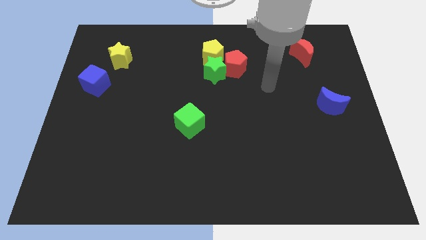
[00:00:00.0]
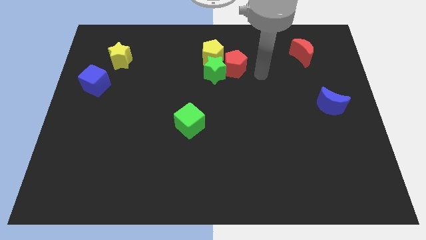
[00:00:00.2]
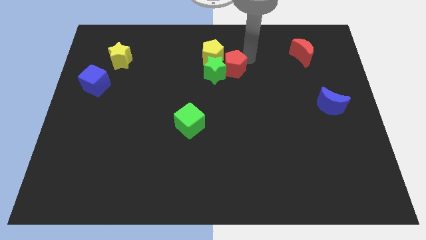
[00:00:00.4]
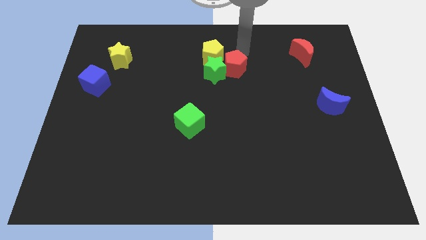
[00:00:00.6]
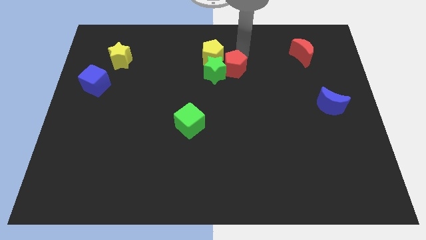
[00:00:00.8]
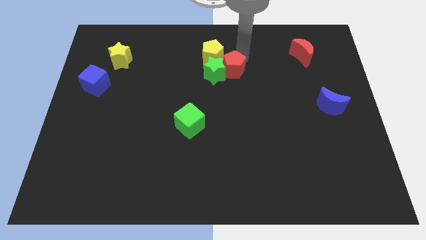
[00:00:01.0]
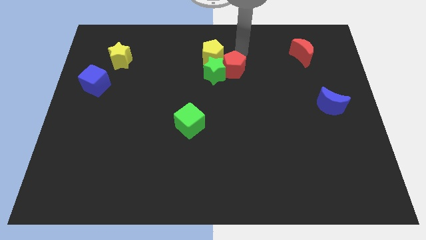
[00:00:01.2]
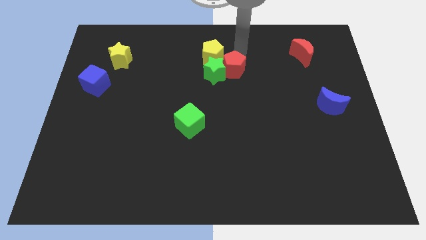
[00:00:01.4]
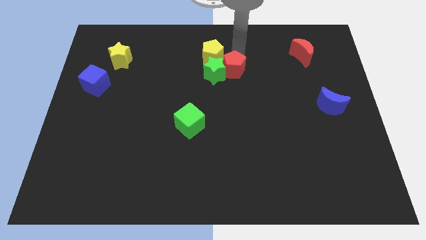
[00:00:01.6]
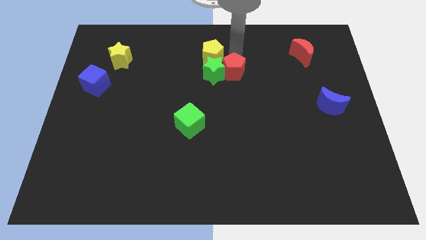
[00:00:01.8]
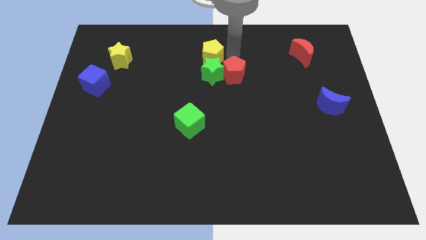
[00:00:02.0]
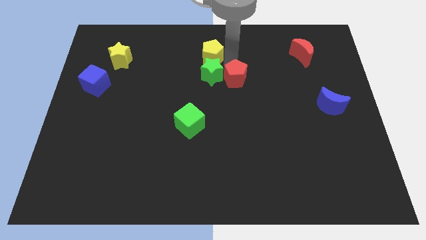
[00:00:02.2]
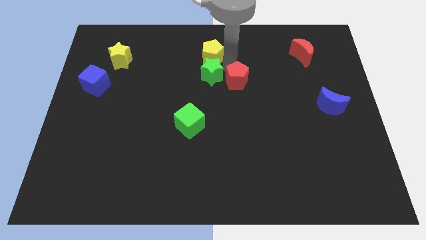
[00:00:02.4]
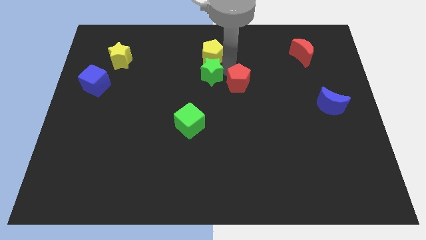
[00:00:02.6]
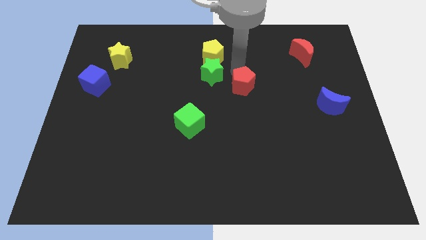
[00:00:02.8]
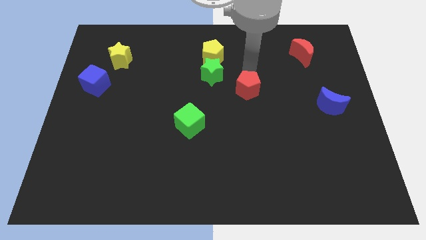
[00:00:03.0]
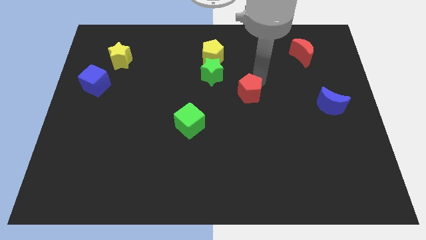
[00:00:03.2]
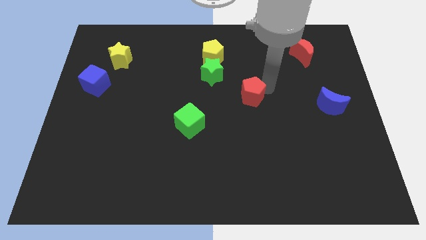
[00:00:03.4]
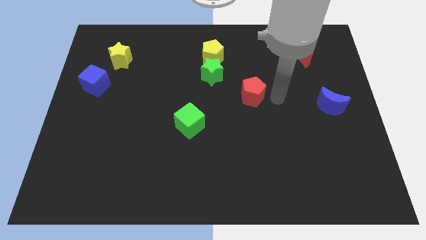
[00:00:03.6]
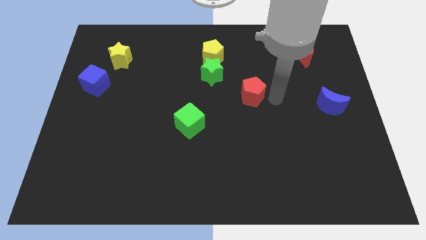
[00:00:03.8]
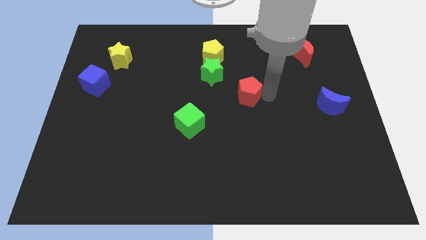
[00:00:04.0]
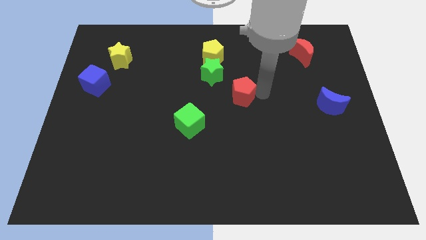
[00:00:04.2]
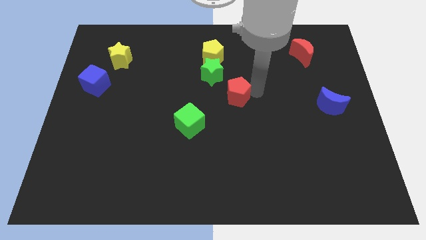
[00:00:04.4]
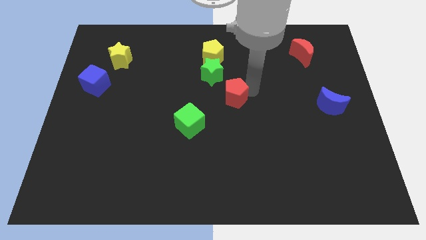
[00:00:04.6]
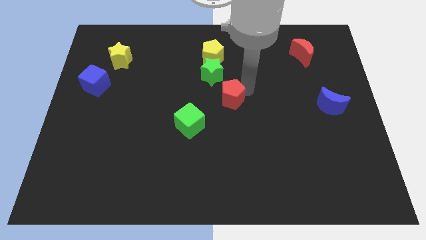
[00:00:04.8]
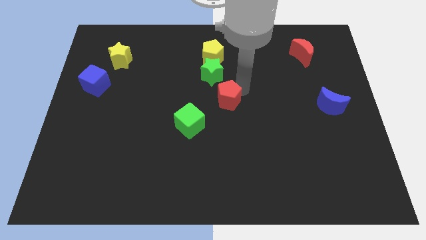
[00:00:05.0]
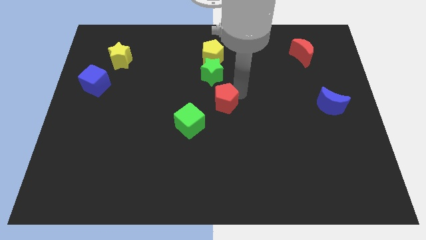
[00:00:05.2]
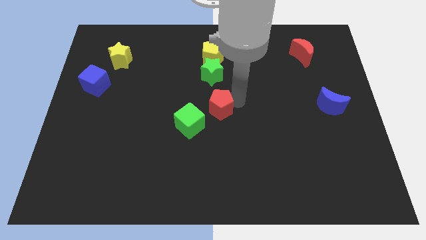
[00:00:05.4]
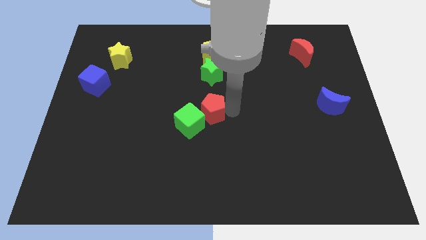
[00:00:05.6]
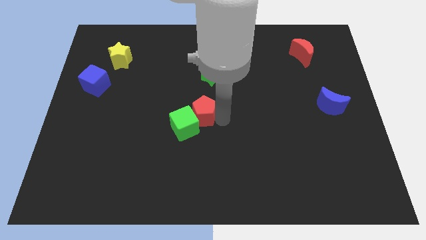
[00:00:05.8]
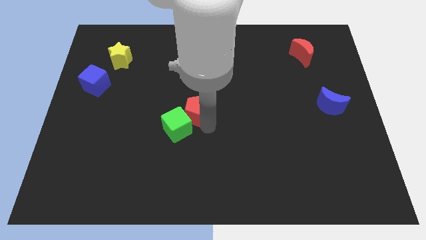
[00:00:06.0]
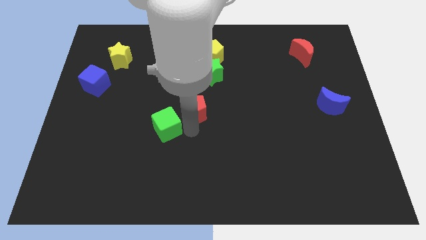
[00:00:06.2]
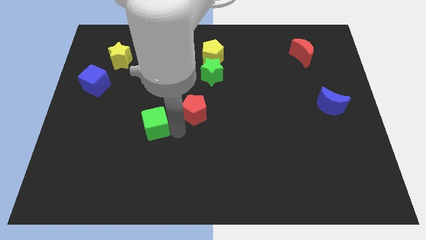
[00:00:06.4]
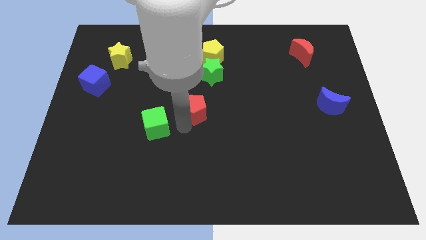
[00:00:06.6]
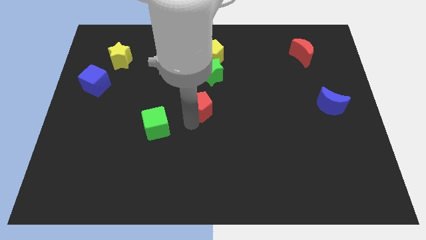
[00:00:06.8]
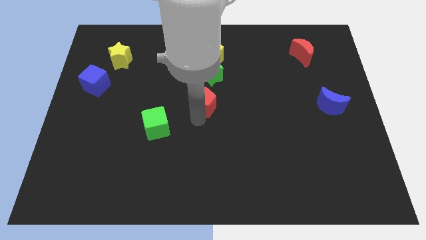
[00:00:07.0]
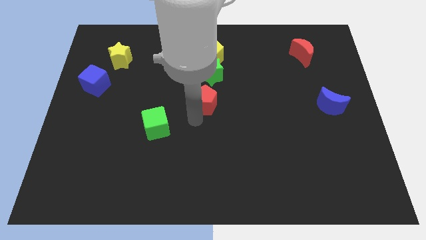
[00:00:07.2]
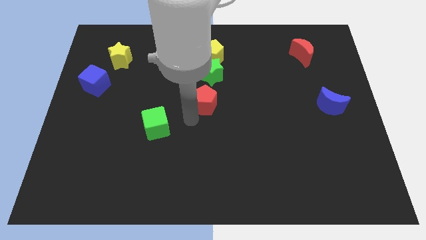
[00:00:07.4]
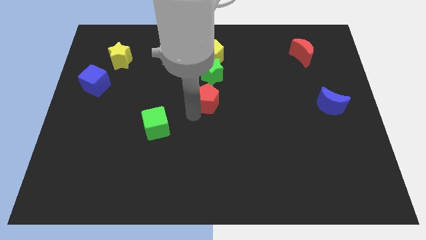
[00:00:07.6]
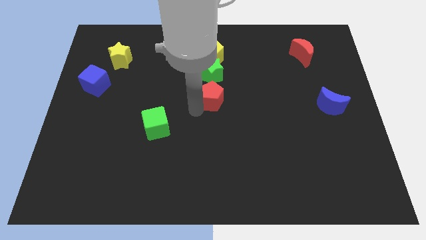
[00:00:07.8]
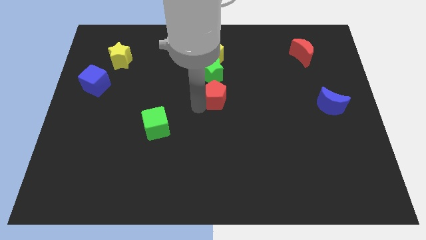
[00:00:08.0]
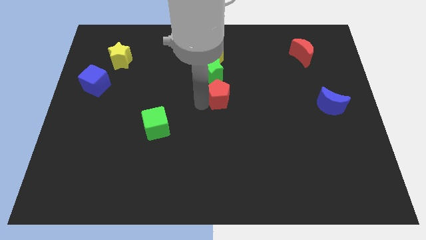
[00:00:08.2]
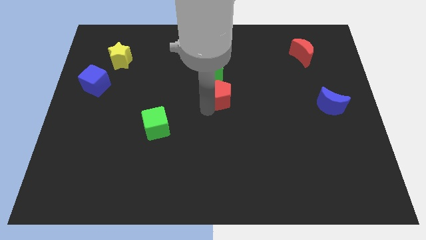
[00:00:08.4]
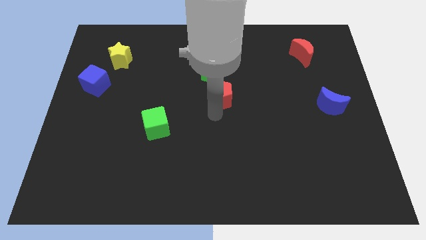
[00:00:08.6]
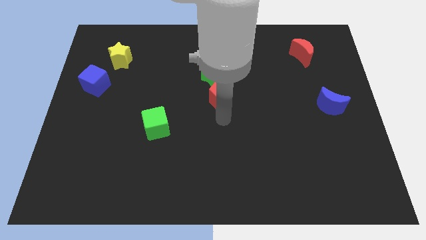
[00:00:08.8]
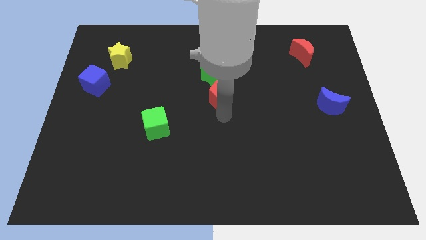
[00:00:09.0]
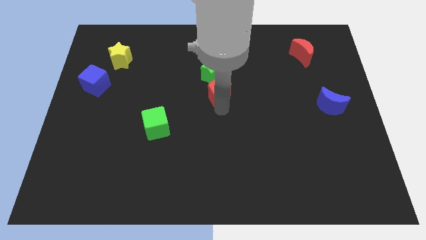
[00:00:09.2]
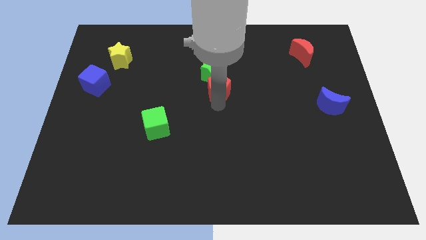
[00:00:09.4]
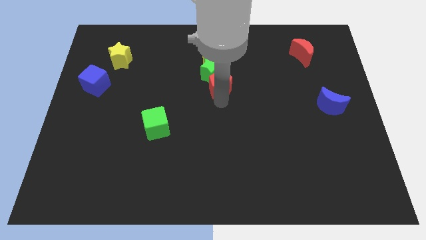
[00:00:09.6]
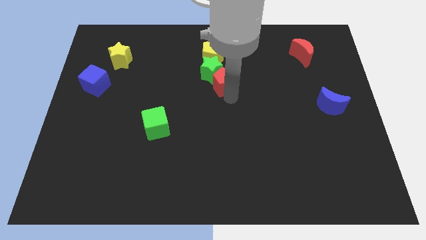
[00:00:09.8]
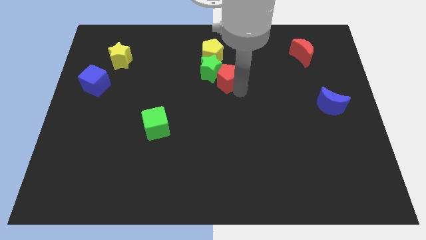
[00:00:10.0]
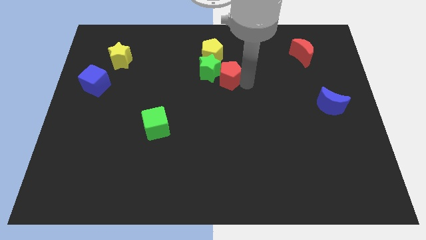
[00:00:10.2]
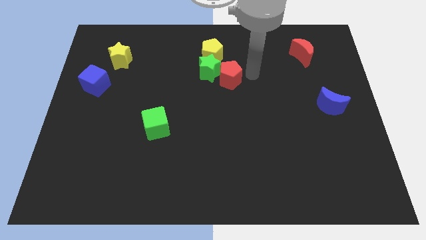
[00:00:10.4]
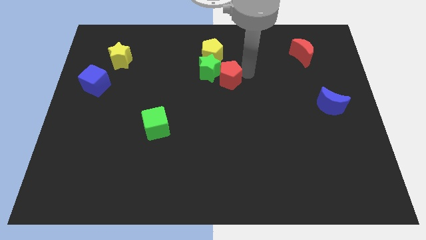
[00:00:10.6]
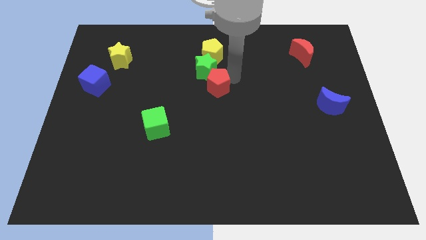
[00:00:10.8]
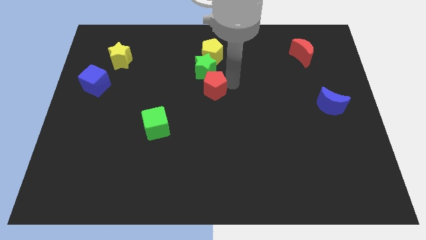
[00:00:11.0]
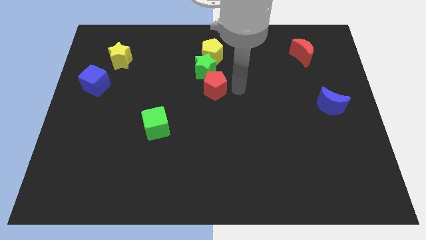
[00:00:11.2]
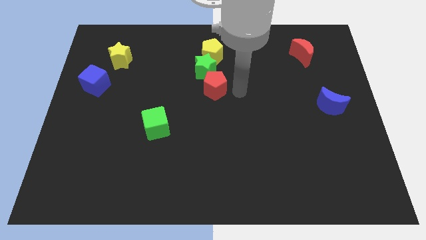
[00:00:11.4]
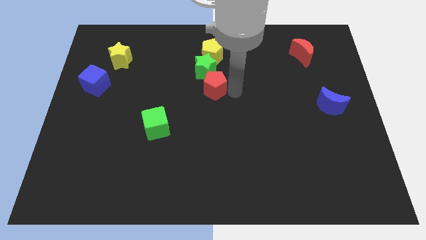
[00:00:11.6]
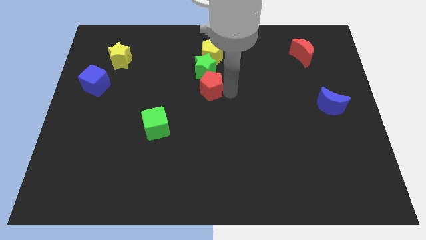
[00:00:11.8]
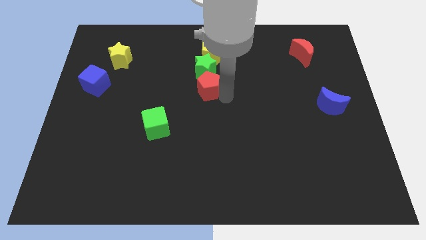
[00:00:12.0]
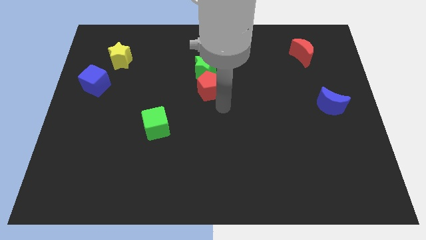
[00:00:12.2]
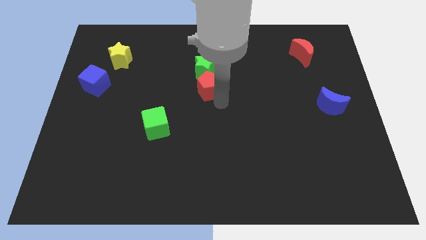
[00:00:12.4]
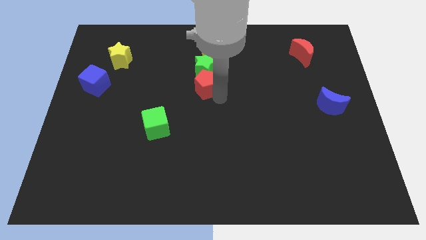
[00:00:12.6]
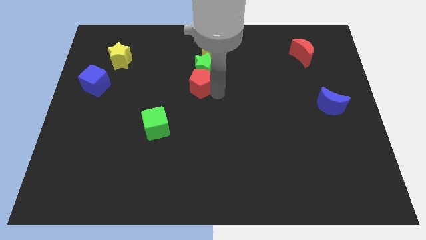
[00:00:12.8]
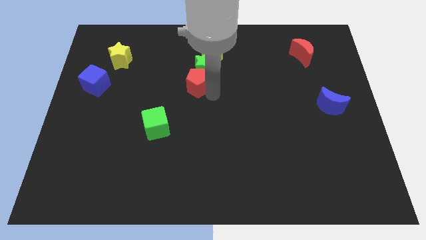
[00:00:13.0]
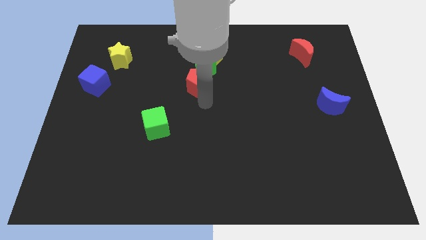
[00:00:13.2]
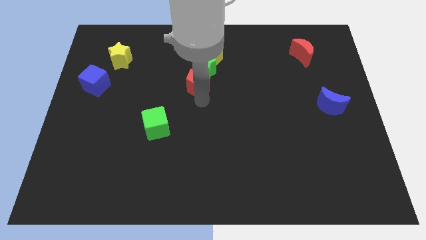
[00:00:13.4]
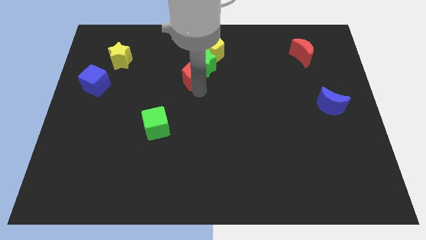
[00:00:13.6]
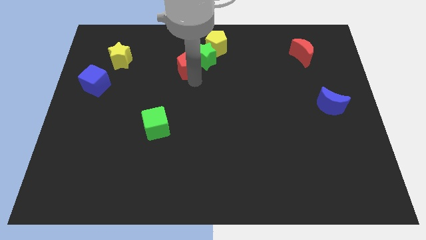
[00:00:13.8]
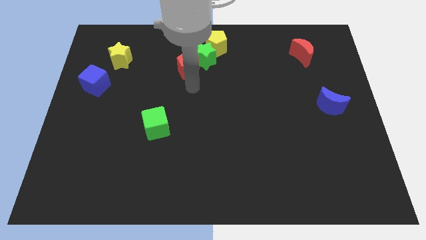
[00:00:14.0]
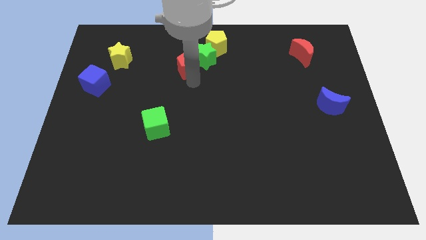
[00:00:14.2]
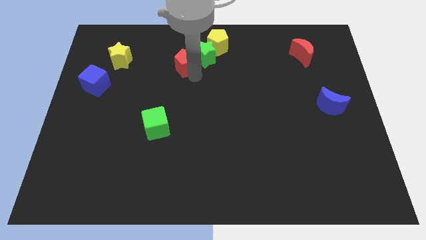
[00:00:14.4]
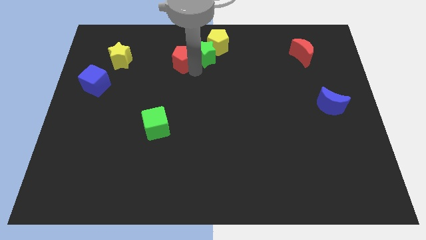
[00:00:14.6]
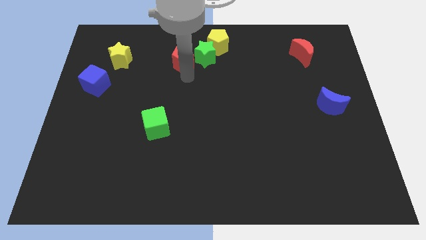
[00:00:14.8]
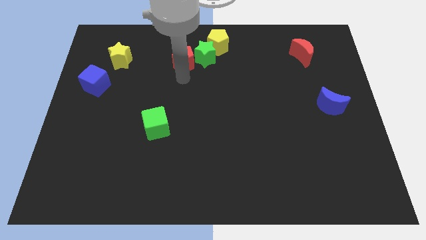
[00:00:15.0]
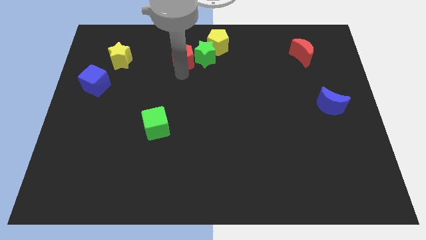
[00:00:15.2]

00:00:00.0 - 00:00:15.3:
put the red pentagon to the top left of the green star
